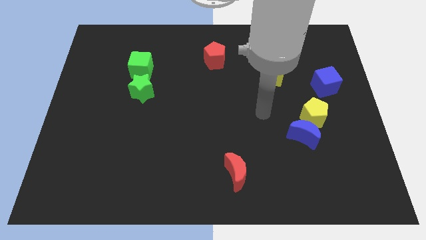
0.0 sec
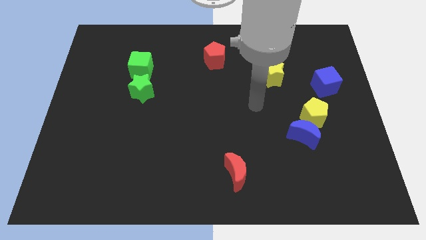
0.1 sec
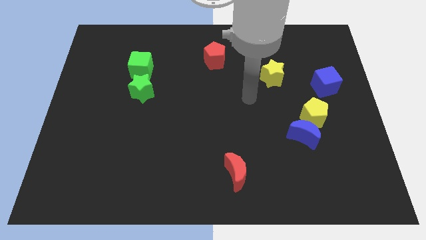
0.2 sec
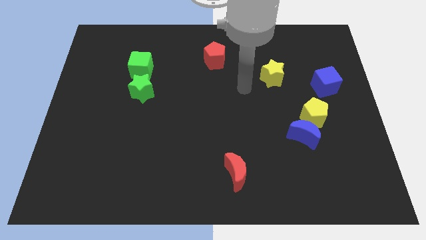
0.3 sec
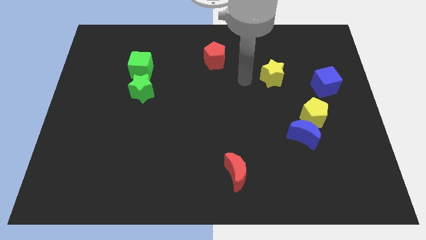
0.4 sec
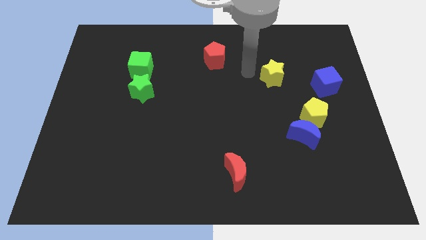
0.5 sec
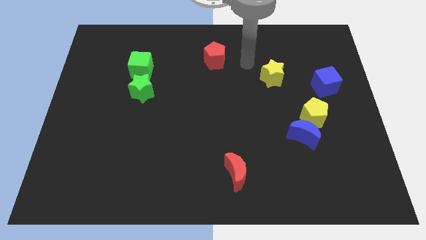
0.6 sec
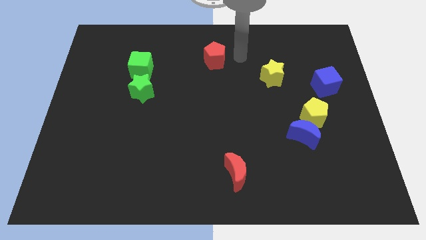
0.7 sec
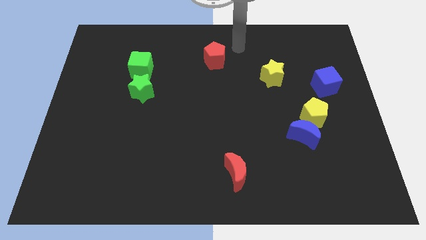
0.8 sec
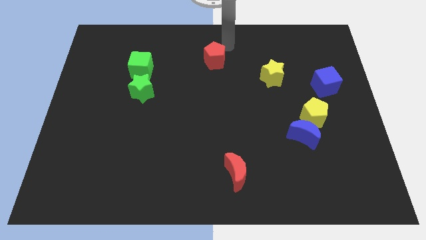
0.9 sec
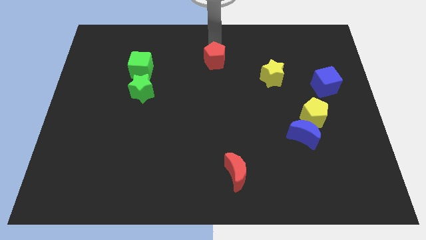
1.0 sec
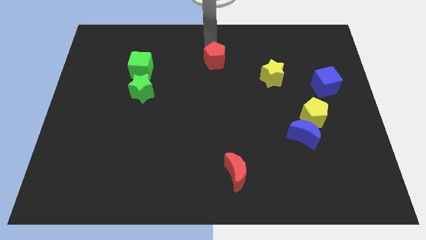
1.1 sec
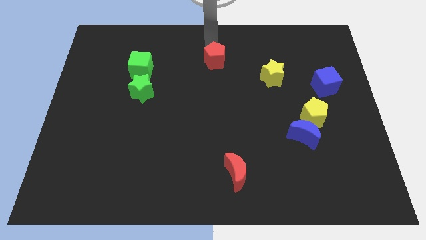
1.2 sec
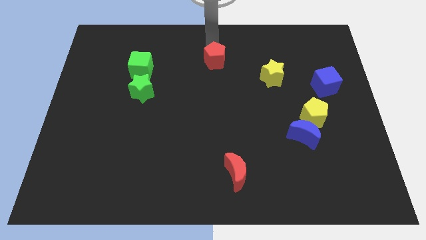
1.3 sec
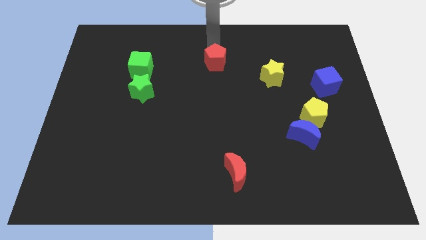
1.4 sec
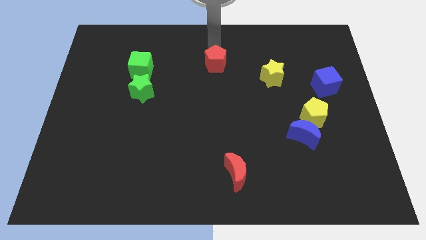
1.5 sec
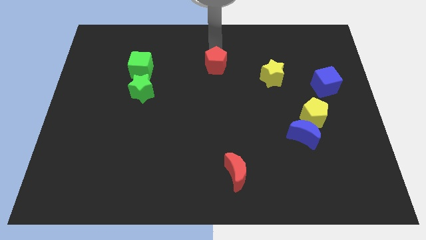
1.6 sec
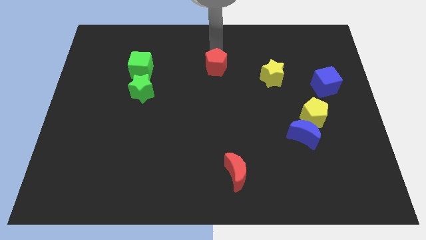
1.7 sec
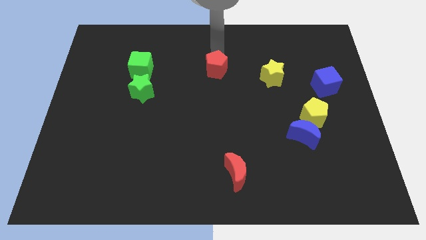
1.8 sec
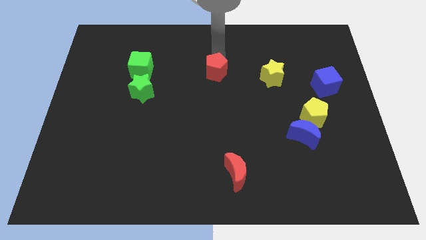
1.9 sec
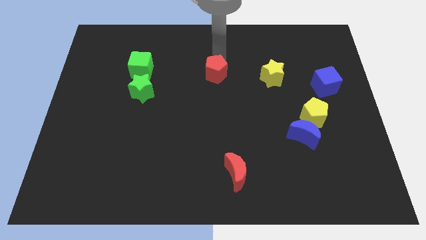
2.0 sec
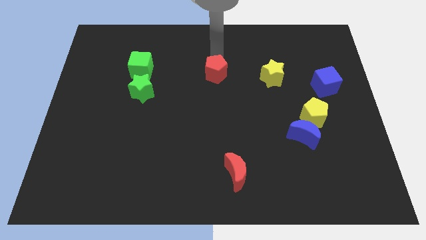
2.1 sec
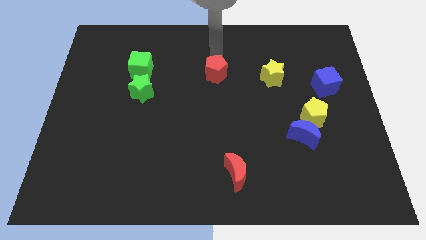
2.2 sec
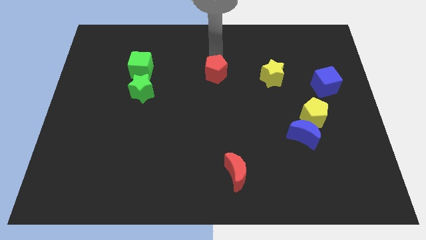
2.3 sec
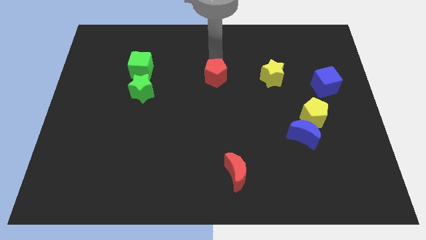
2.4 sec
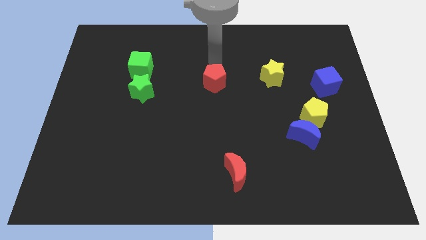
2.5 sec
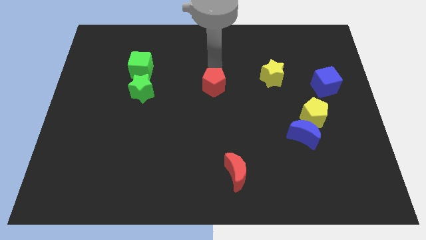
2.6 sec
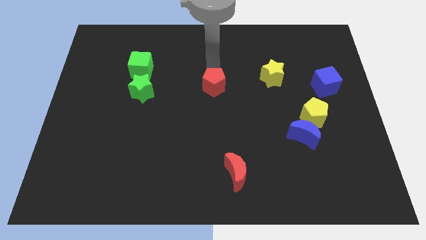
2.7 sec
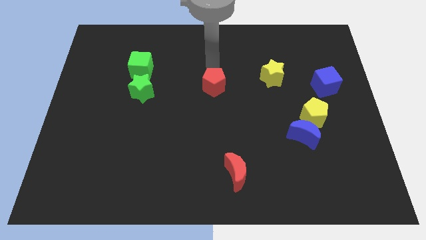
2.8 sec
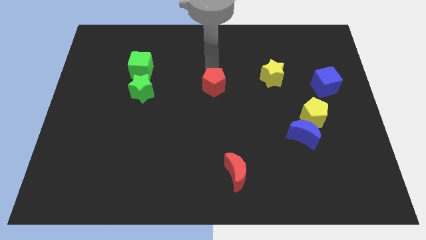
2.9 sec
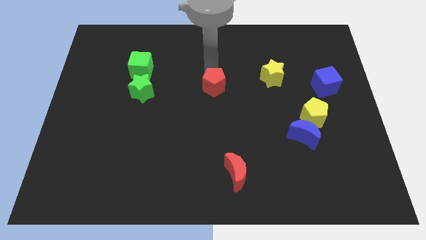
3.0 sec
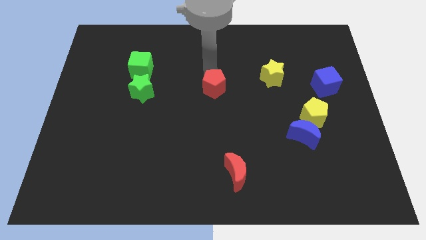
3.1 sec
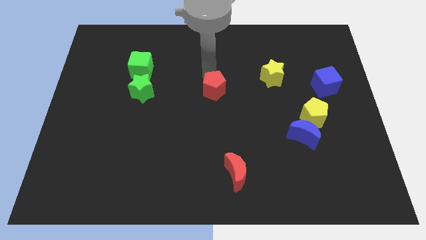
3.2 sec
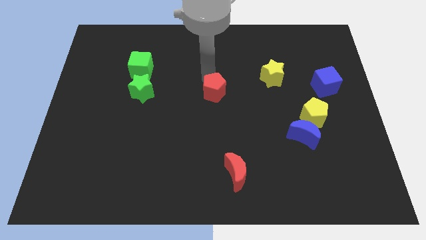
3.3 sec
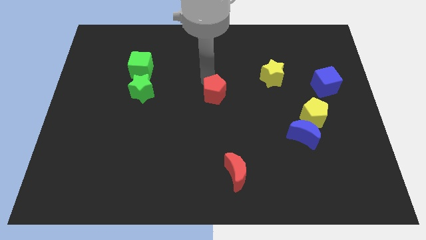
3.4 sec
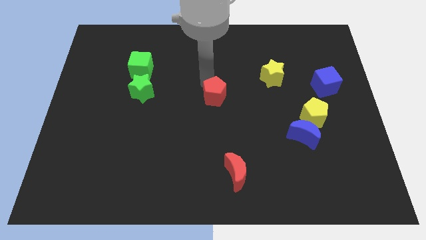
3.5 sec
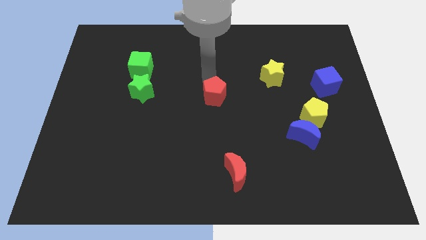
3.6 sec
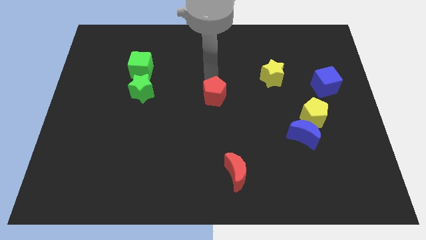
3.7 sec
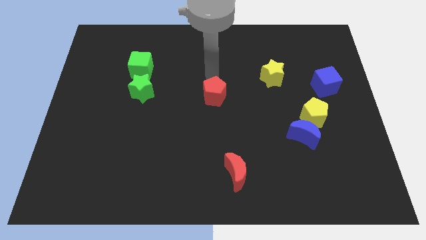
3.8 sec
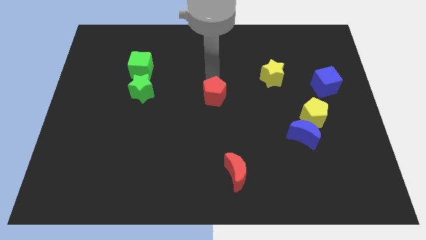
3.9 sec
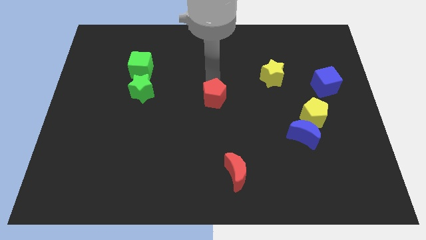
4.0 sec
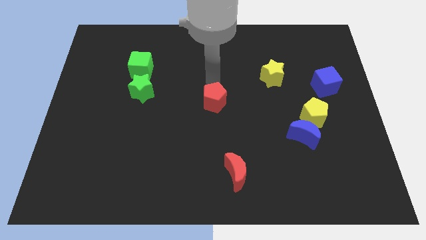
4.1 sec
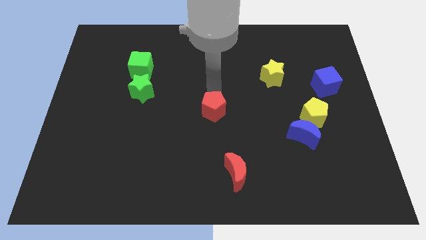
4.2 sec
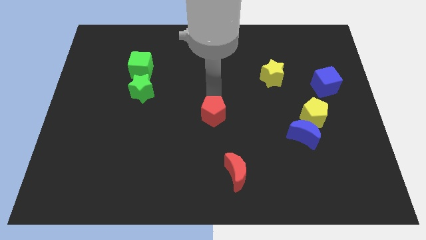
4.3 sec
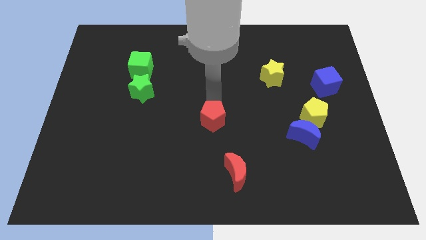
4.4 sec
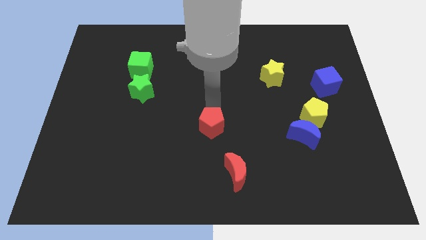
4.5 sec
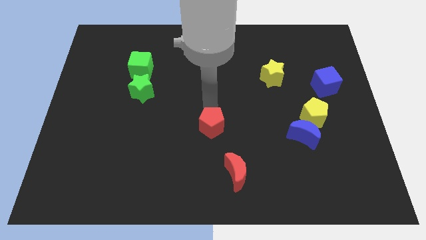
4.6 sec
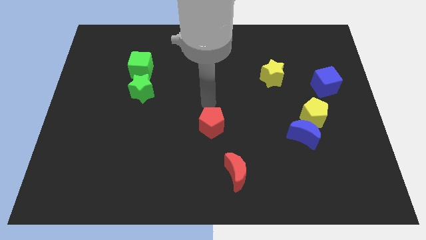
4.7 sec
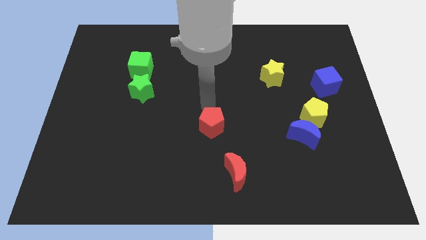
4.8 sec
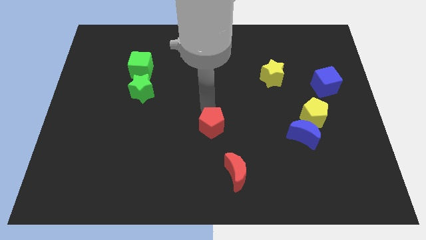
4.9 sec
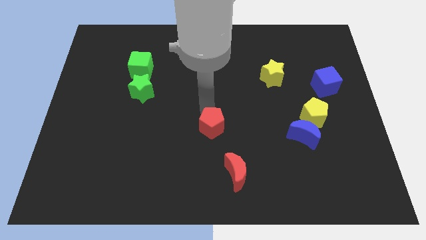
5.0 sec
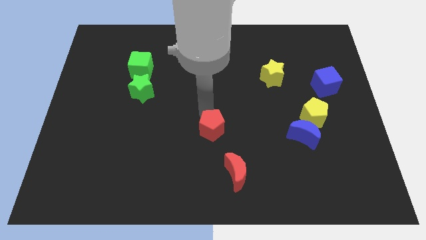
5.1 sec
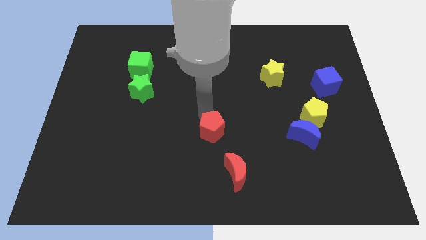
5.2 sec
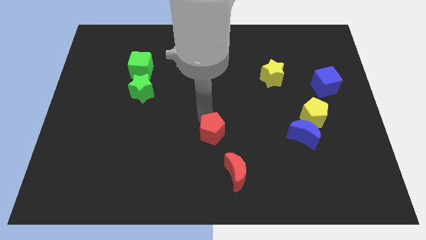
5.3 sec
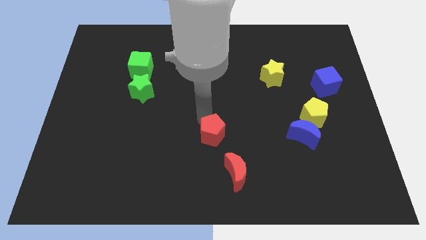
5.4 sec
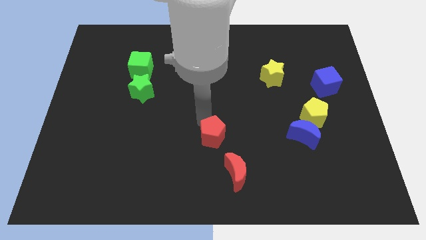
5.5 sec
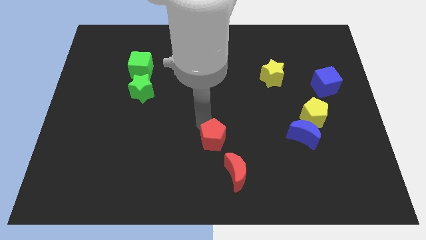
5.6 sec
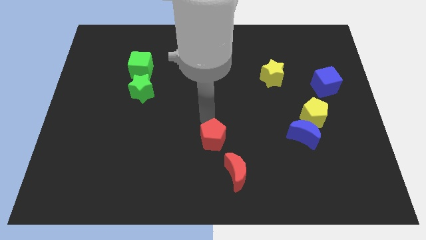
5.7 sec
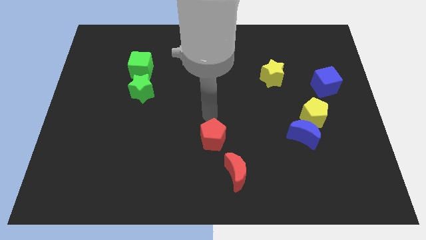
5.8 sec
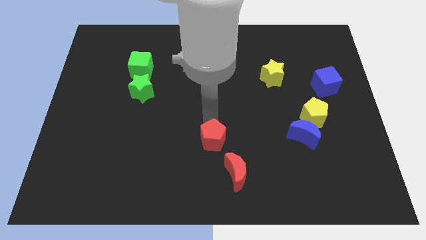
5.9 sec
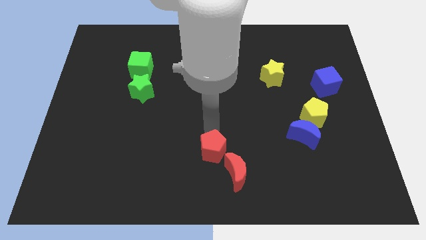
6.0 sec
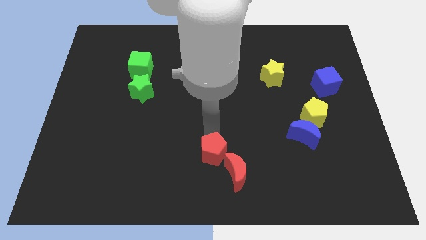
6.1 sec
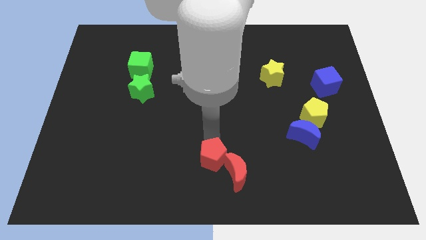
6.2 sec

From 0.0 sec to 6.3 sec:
slide the red pentagon to the bottom
